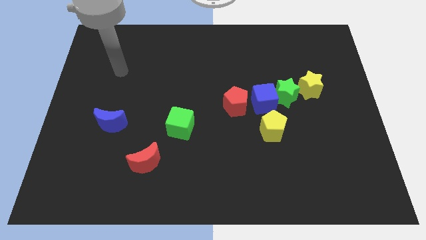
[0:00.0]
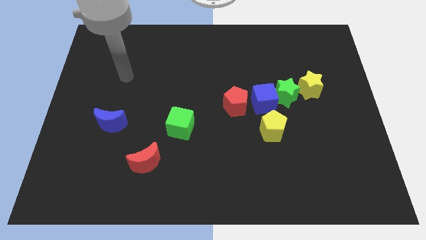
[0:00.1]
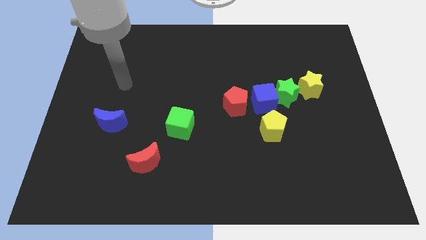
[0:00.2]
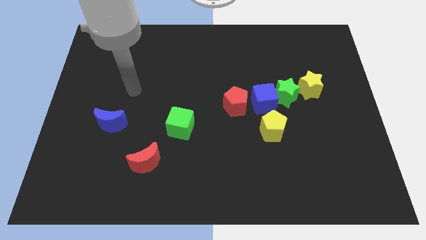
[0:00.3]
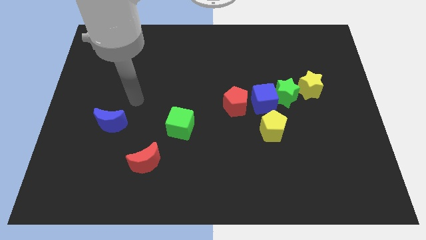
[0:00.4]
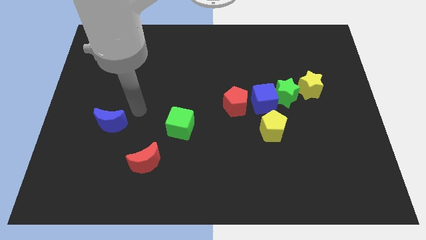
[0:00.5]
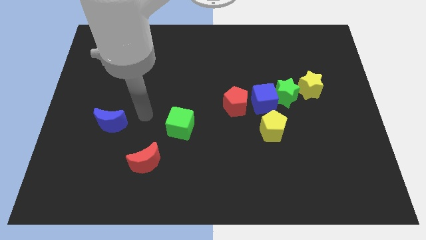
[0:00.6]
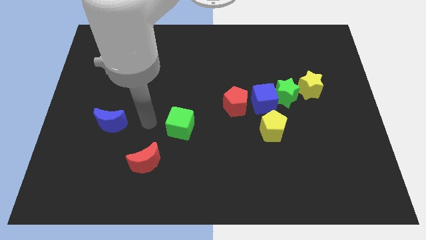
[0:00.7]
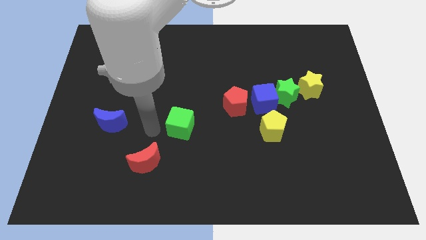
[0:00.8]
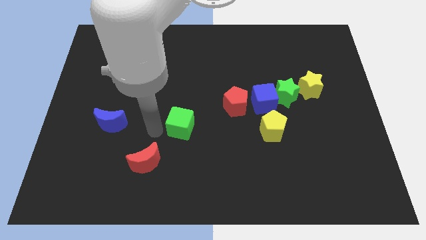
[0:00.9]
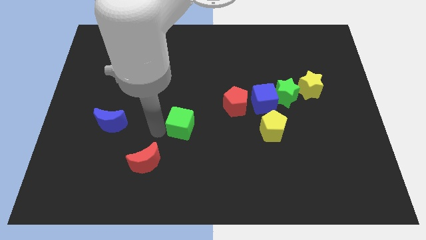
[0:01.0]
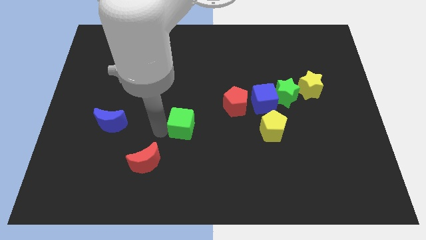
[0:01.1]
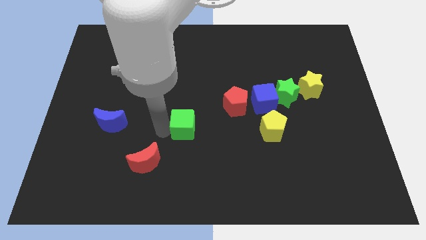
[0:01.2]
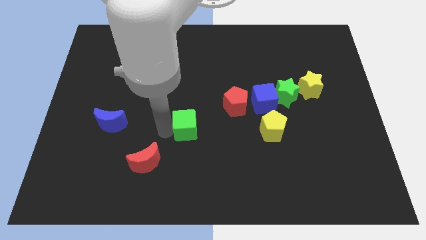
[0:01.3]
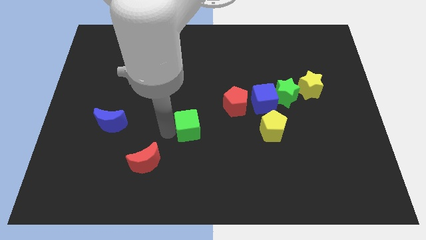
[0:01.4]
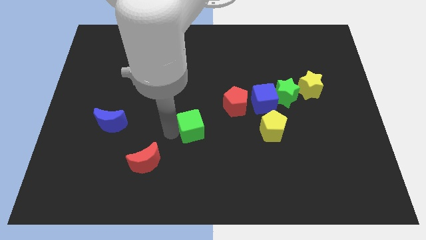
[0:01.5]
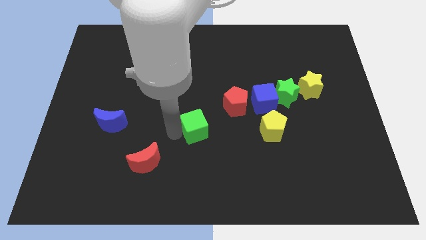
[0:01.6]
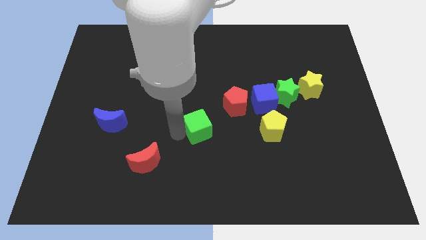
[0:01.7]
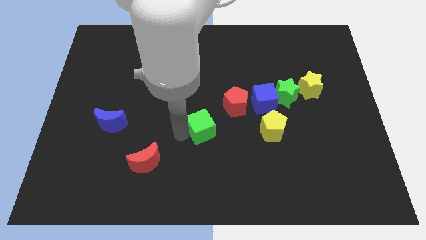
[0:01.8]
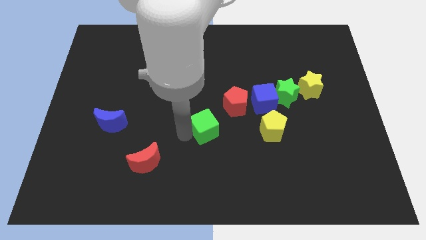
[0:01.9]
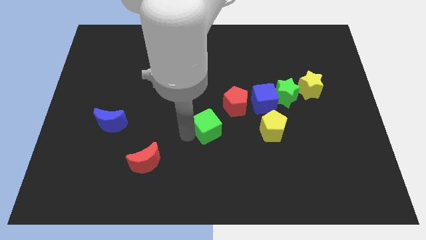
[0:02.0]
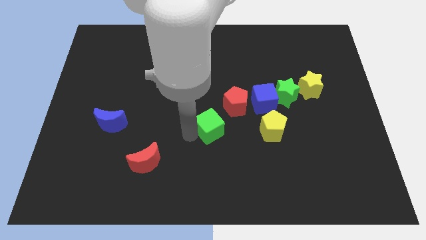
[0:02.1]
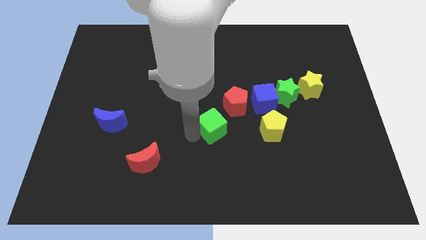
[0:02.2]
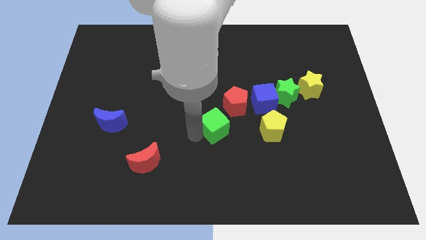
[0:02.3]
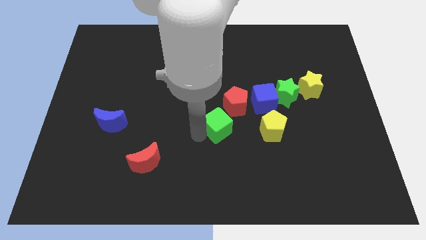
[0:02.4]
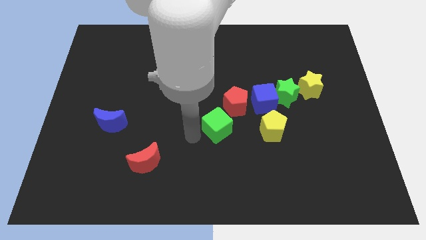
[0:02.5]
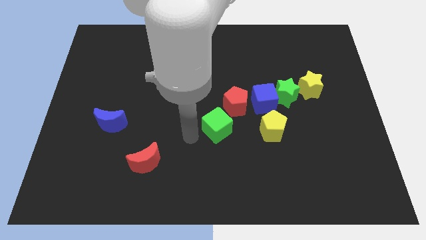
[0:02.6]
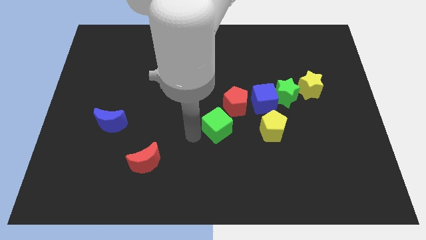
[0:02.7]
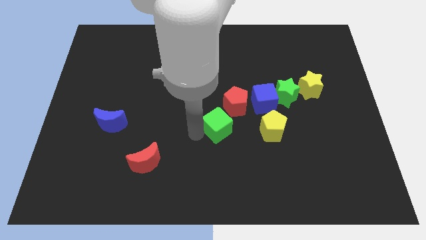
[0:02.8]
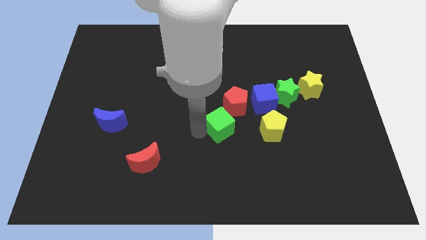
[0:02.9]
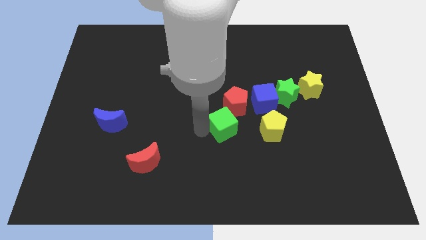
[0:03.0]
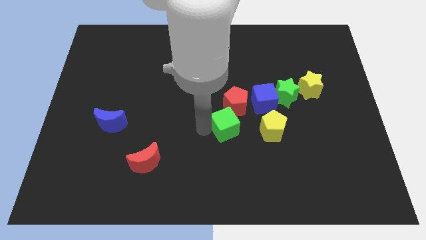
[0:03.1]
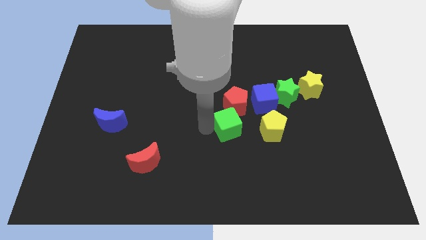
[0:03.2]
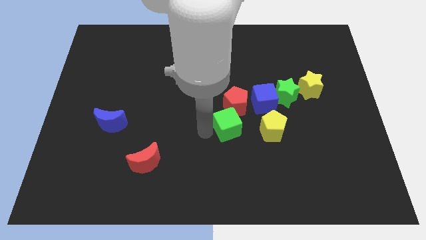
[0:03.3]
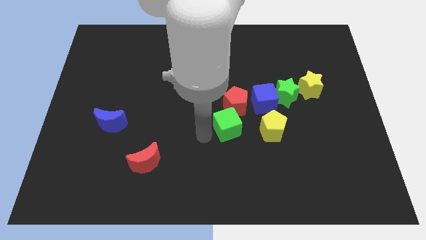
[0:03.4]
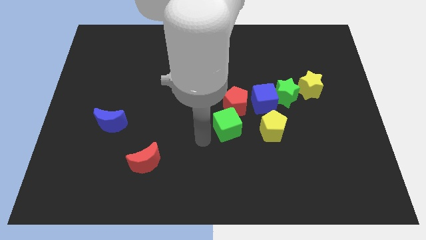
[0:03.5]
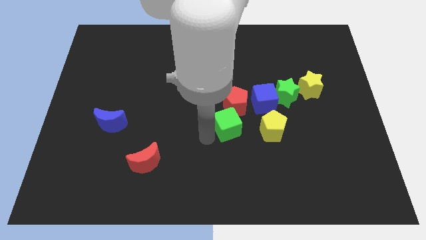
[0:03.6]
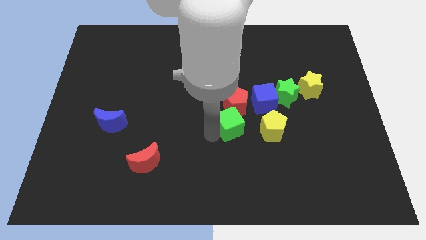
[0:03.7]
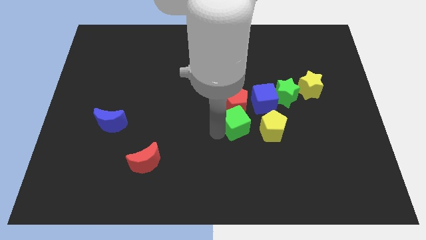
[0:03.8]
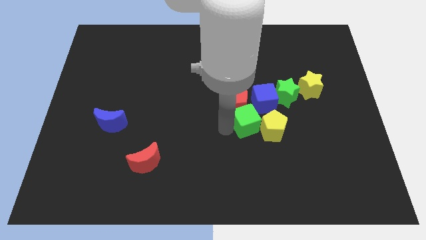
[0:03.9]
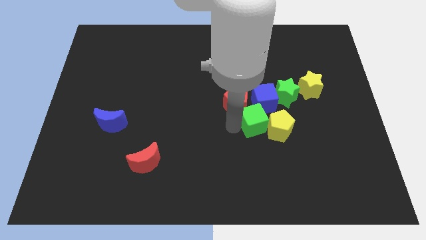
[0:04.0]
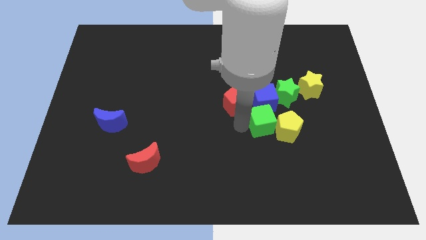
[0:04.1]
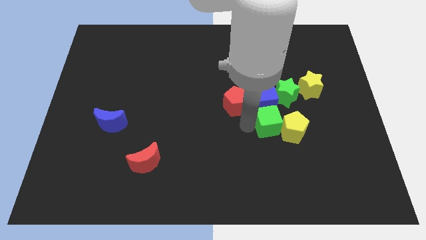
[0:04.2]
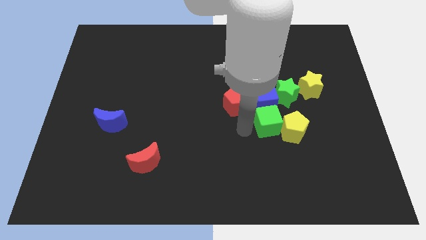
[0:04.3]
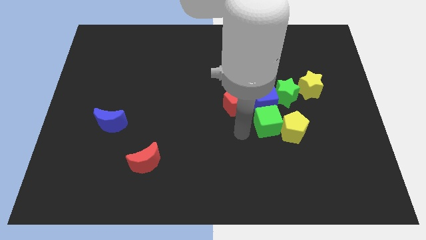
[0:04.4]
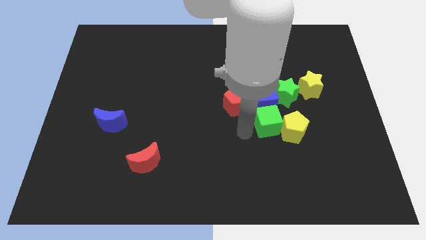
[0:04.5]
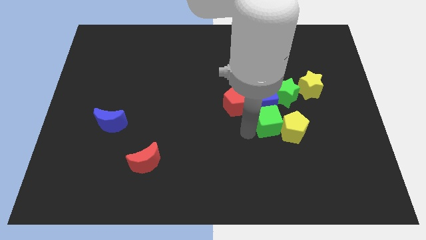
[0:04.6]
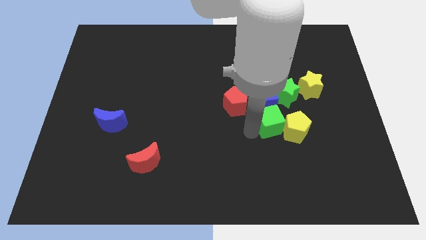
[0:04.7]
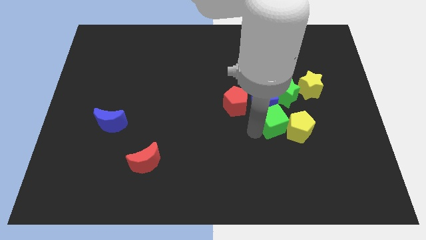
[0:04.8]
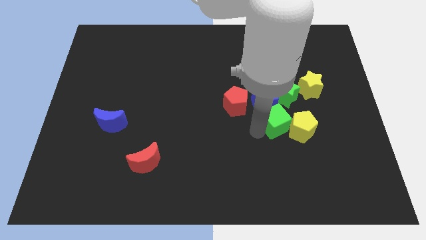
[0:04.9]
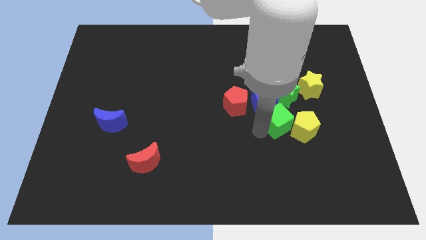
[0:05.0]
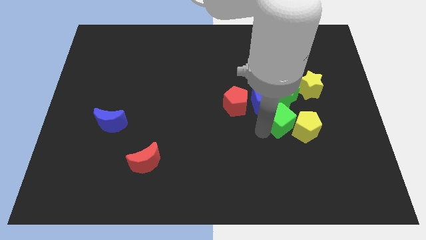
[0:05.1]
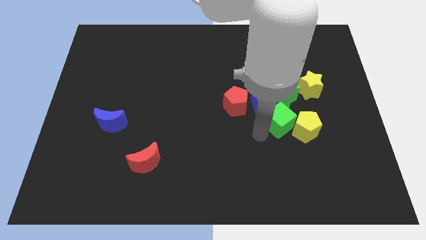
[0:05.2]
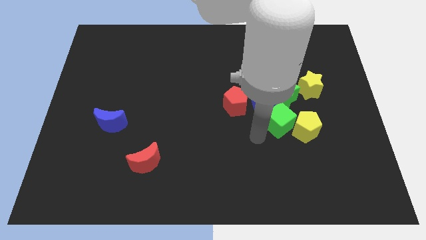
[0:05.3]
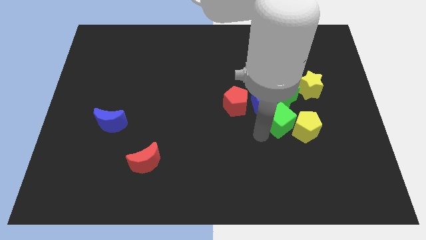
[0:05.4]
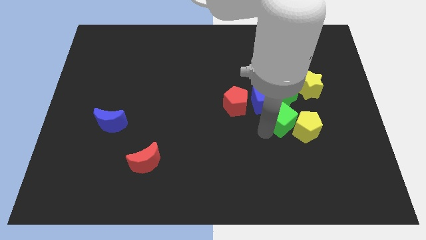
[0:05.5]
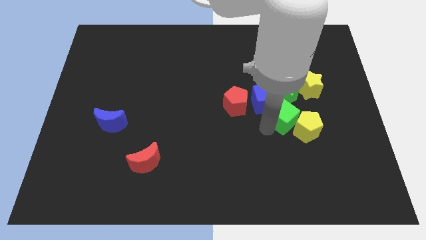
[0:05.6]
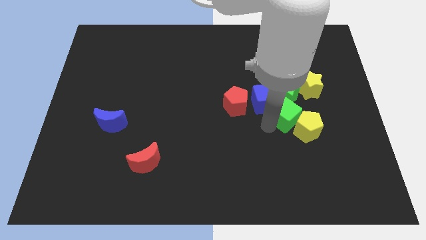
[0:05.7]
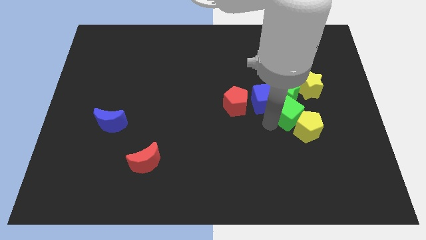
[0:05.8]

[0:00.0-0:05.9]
put the green cube diagonally down and to the right of the green star

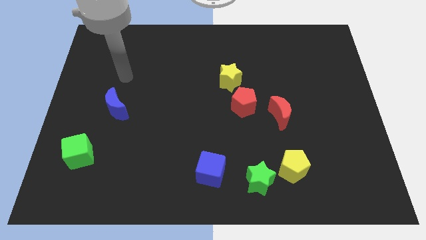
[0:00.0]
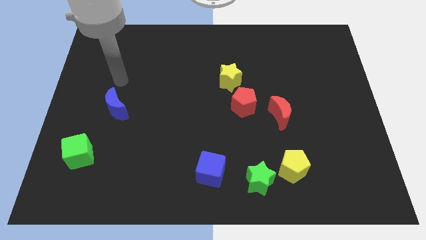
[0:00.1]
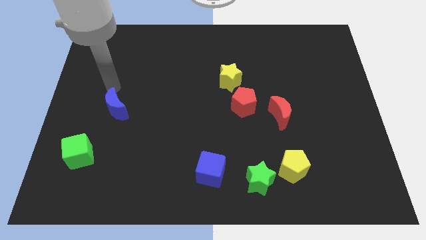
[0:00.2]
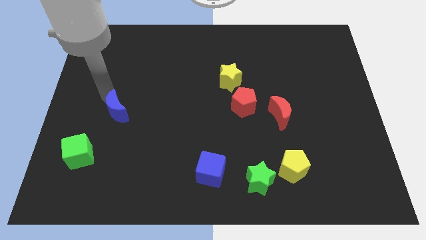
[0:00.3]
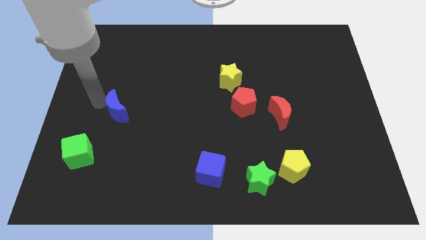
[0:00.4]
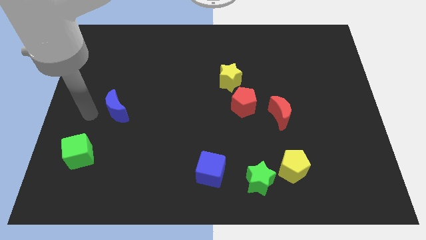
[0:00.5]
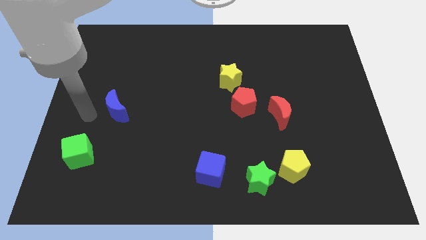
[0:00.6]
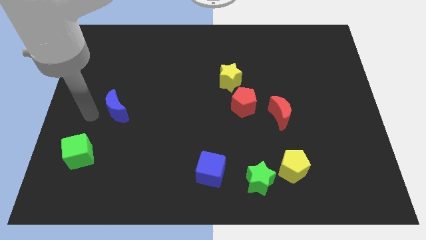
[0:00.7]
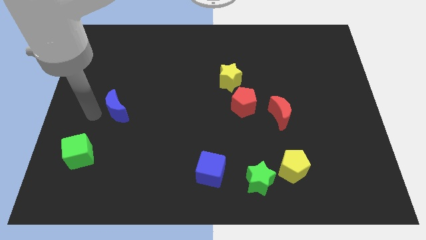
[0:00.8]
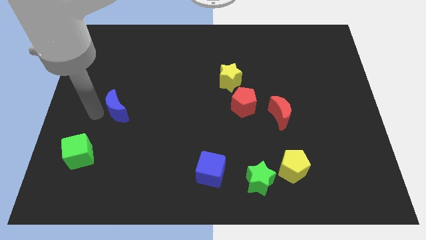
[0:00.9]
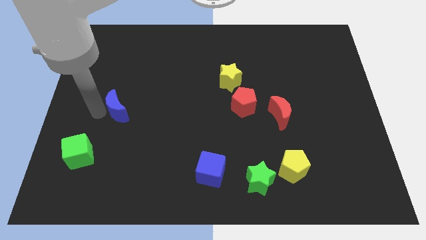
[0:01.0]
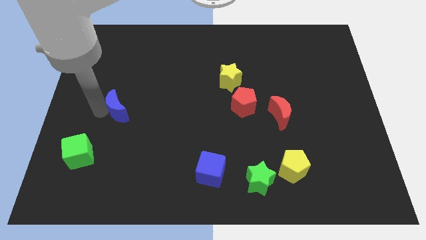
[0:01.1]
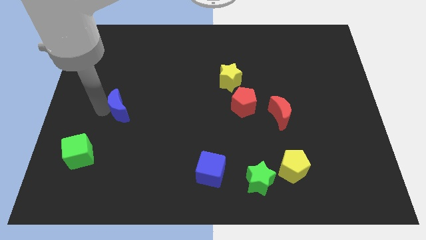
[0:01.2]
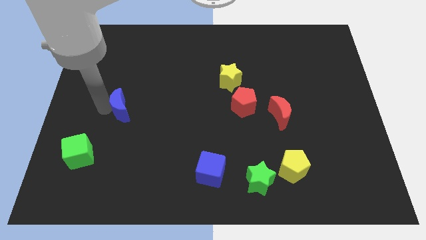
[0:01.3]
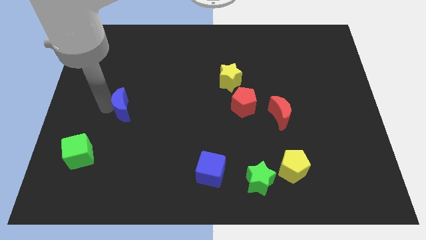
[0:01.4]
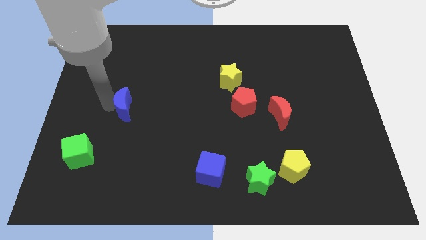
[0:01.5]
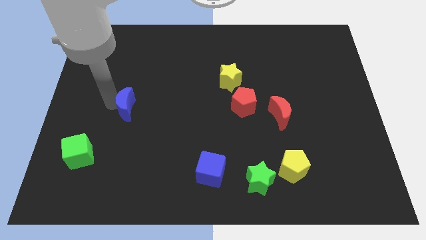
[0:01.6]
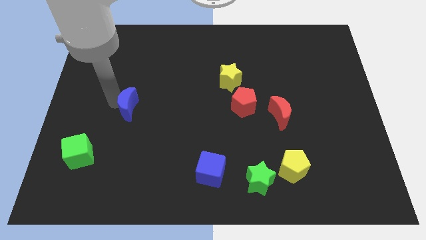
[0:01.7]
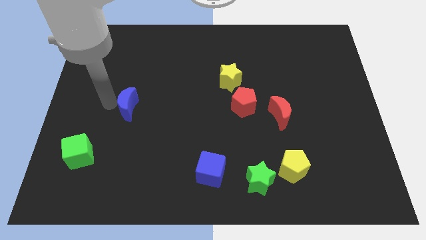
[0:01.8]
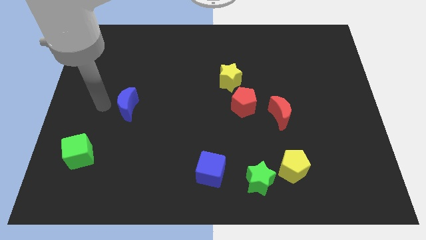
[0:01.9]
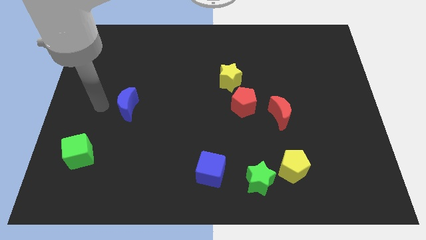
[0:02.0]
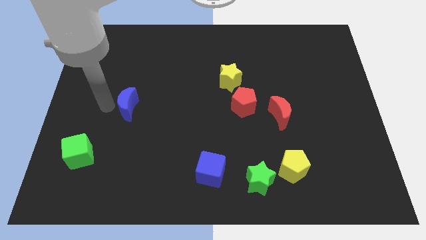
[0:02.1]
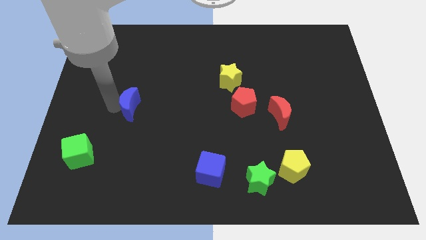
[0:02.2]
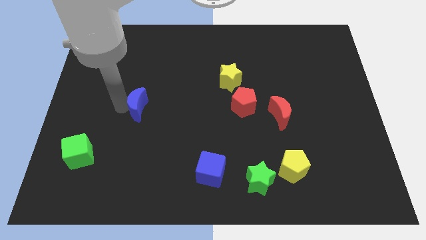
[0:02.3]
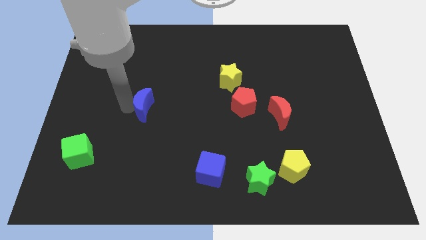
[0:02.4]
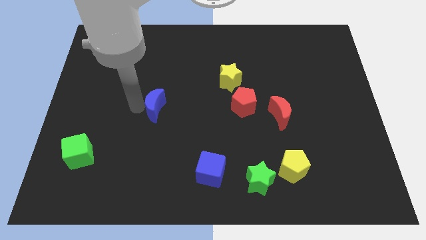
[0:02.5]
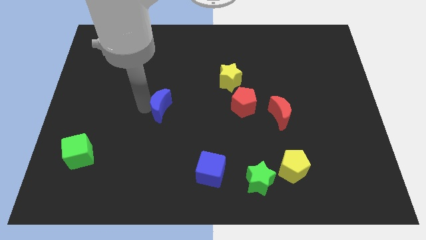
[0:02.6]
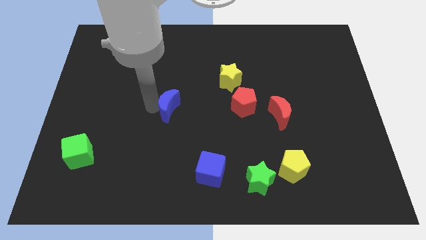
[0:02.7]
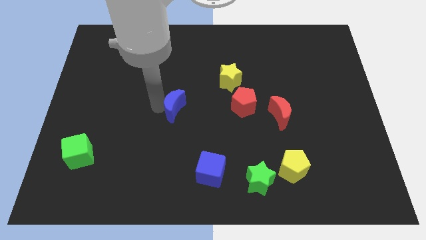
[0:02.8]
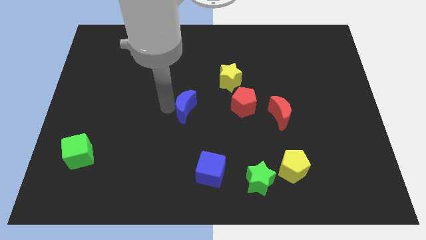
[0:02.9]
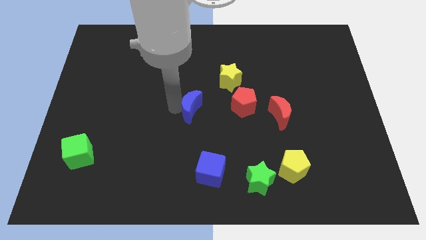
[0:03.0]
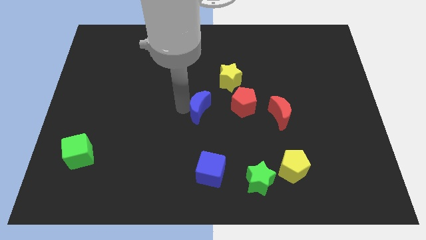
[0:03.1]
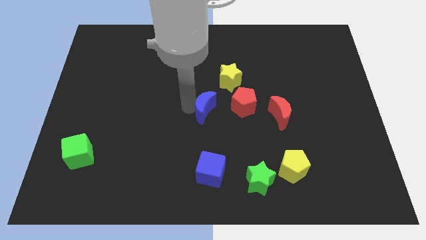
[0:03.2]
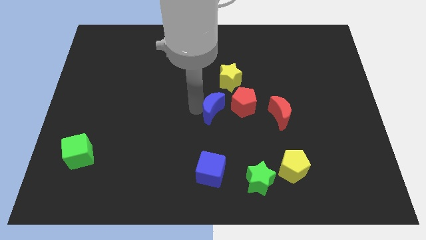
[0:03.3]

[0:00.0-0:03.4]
put the blue moon to the left of the red moon
